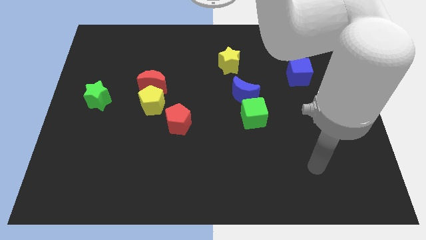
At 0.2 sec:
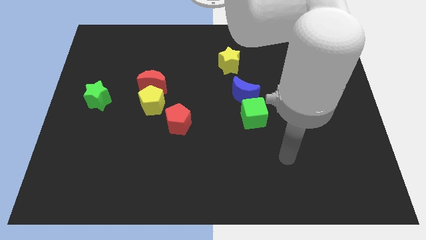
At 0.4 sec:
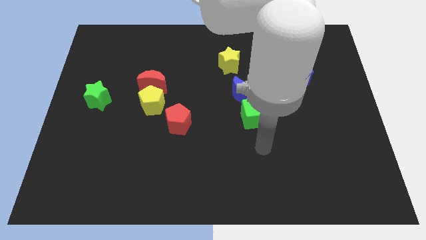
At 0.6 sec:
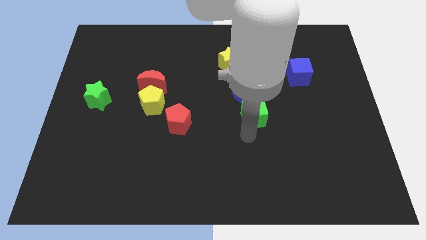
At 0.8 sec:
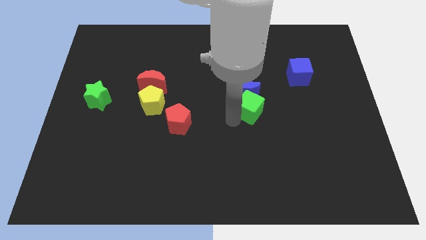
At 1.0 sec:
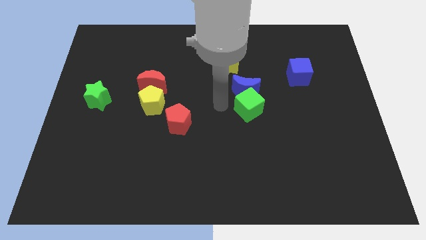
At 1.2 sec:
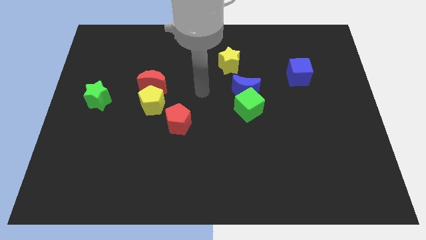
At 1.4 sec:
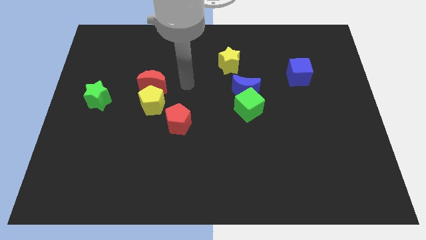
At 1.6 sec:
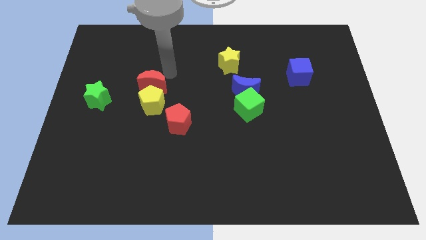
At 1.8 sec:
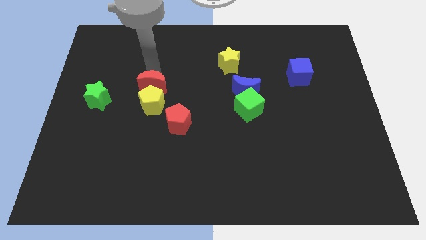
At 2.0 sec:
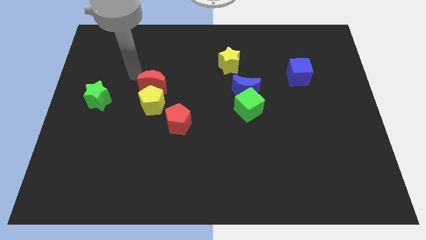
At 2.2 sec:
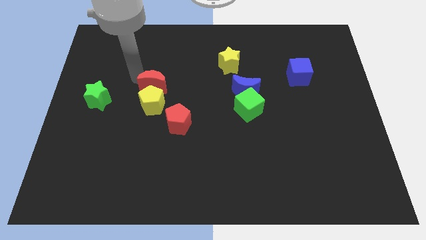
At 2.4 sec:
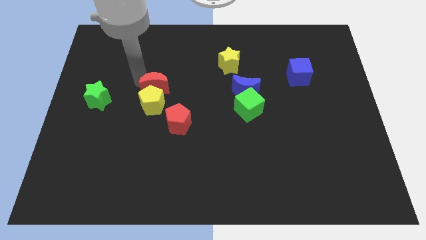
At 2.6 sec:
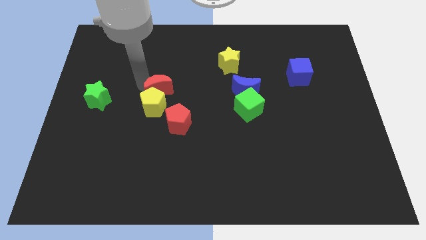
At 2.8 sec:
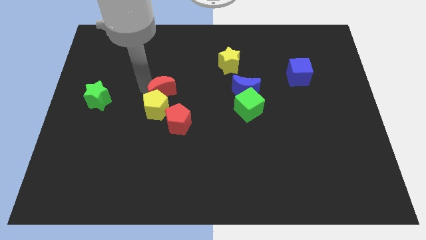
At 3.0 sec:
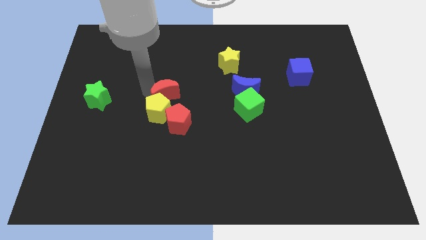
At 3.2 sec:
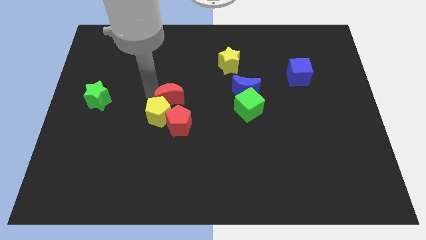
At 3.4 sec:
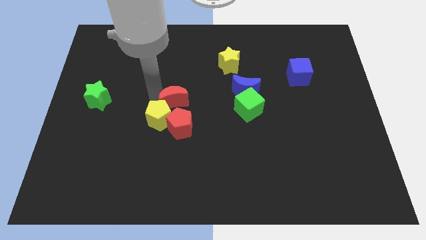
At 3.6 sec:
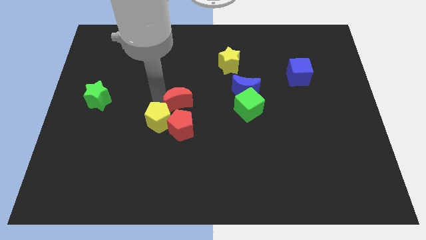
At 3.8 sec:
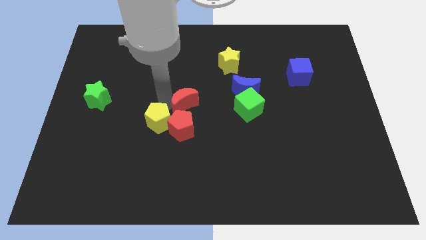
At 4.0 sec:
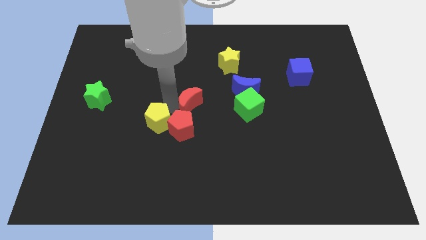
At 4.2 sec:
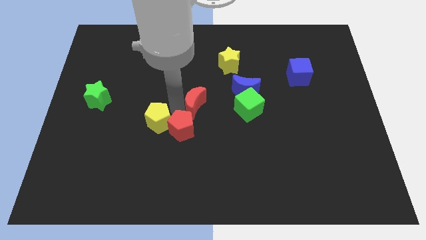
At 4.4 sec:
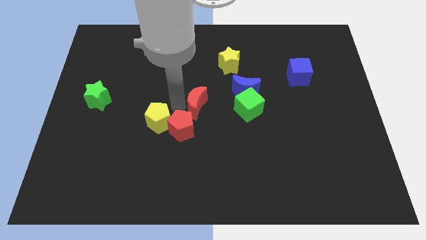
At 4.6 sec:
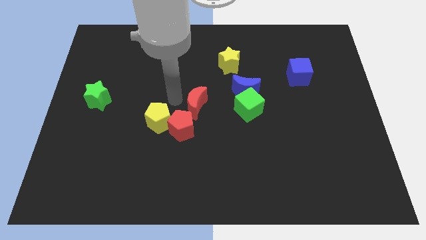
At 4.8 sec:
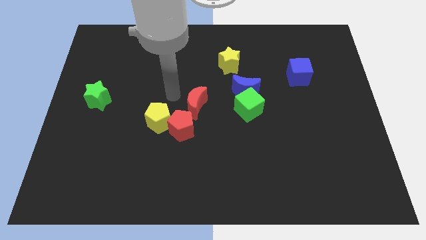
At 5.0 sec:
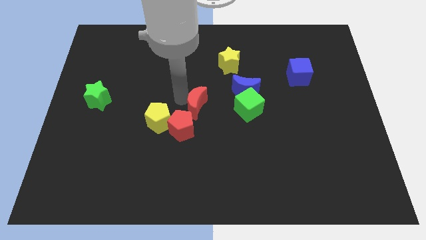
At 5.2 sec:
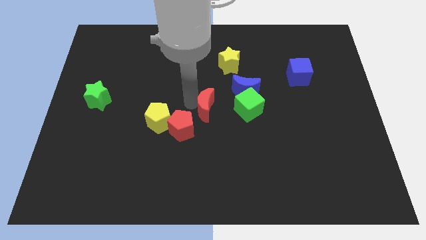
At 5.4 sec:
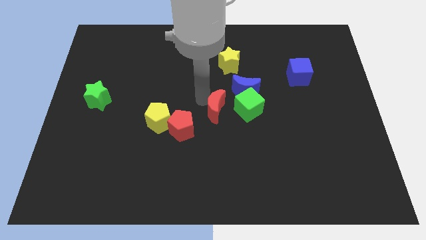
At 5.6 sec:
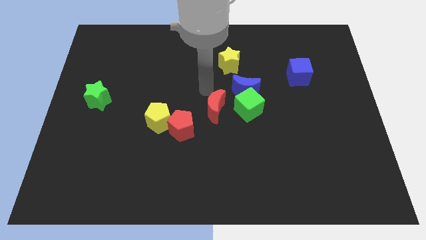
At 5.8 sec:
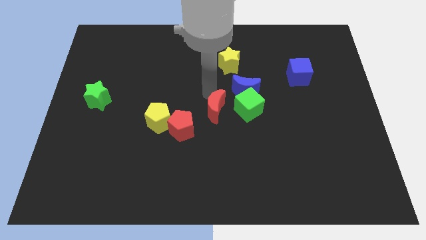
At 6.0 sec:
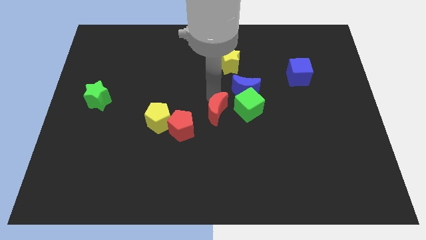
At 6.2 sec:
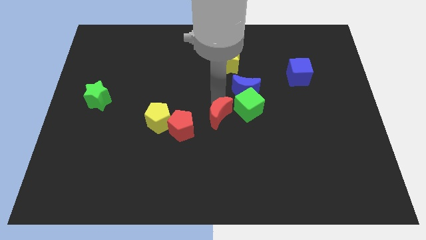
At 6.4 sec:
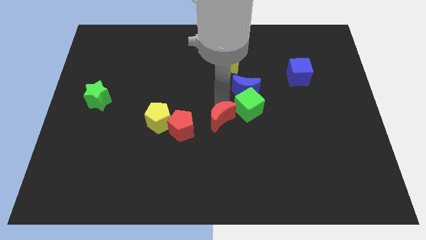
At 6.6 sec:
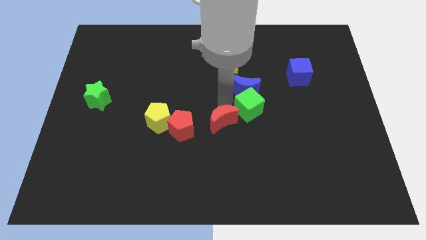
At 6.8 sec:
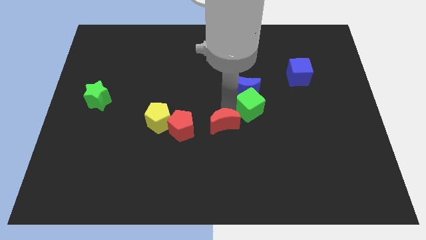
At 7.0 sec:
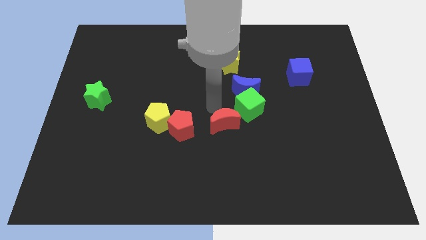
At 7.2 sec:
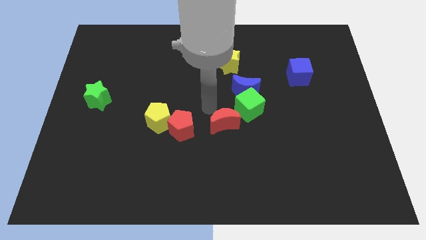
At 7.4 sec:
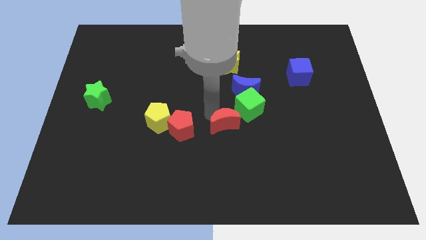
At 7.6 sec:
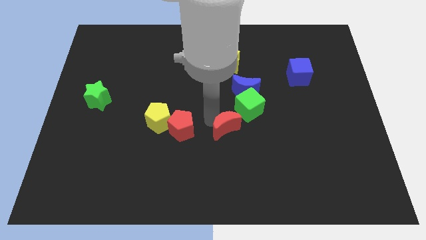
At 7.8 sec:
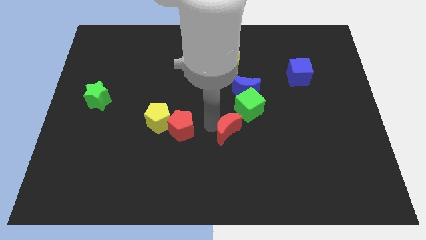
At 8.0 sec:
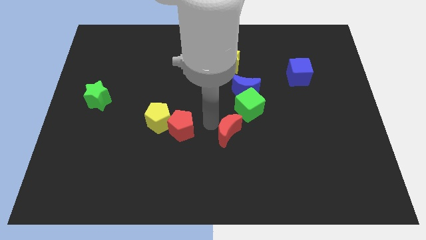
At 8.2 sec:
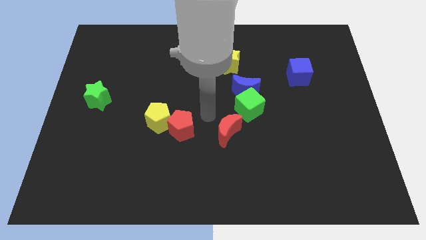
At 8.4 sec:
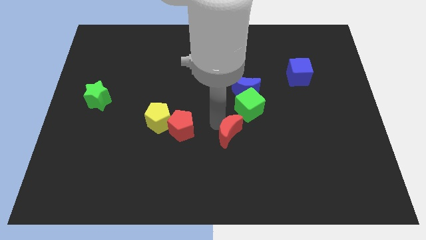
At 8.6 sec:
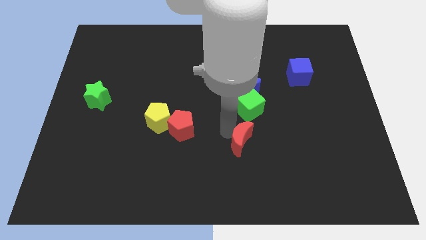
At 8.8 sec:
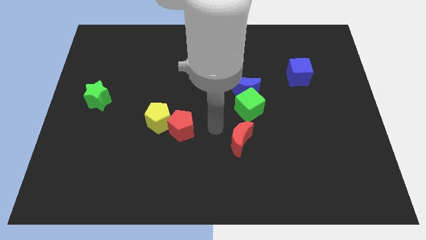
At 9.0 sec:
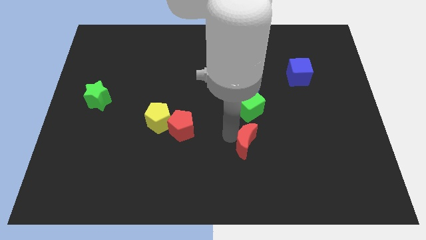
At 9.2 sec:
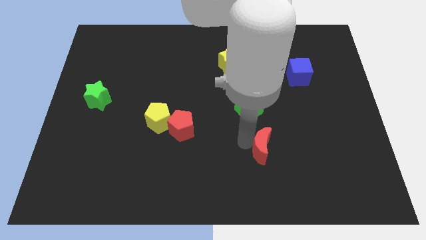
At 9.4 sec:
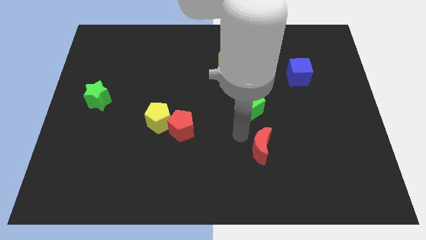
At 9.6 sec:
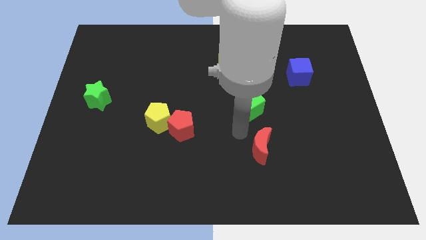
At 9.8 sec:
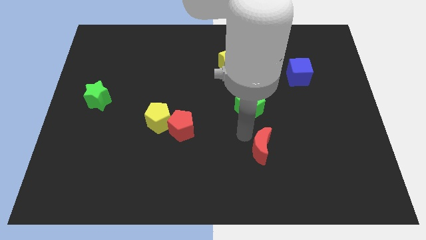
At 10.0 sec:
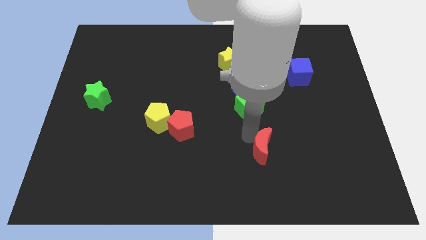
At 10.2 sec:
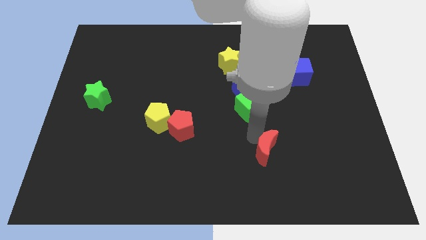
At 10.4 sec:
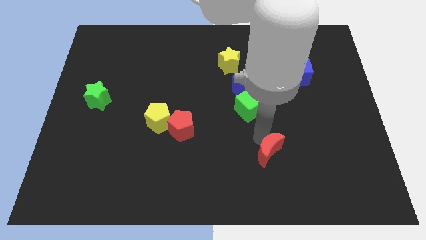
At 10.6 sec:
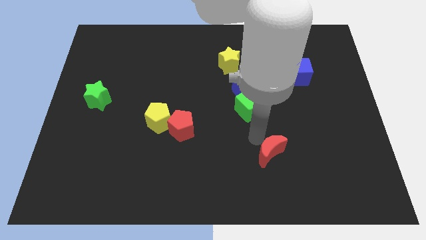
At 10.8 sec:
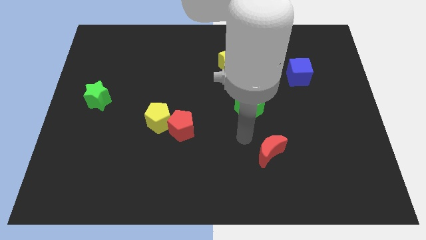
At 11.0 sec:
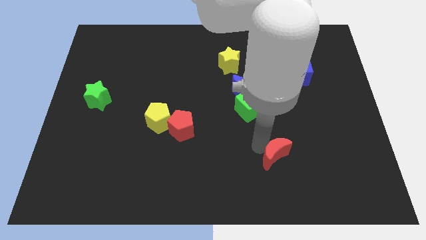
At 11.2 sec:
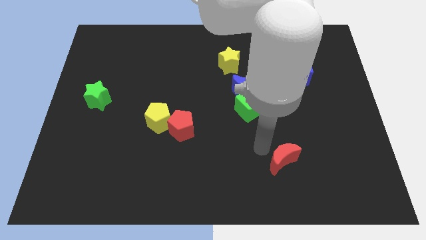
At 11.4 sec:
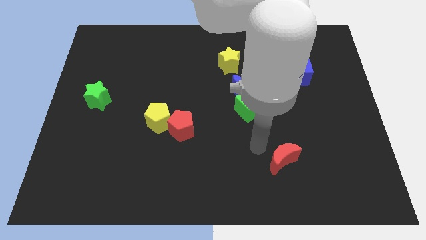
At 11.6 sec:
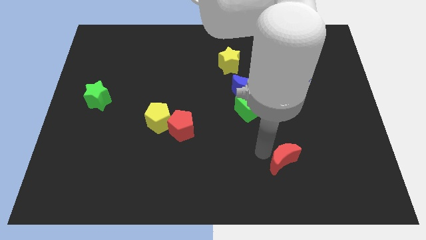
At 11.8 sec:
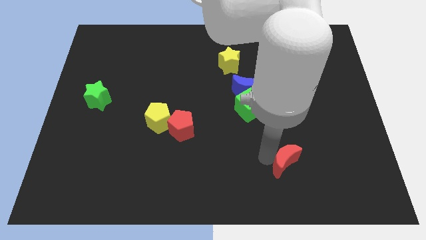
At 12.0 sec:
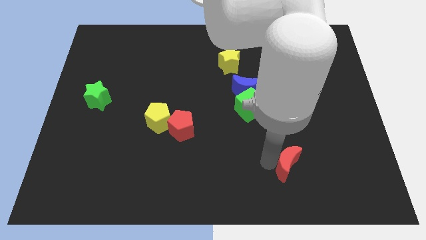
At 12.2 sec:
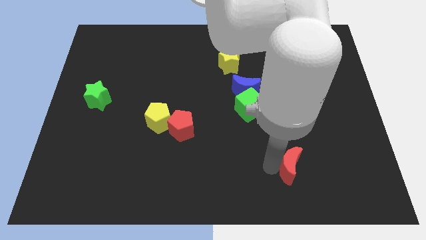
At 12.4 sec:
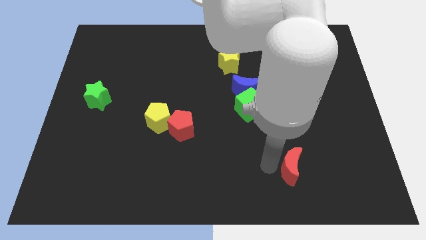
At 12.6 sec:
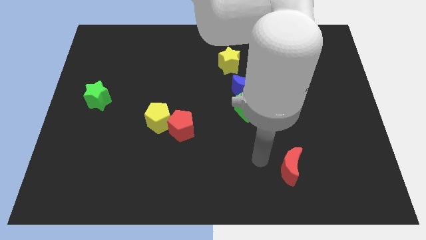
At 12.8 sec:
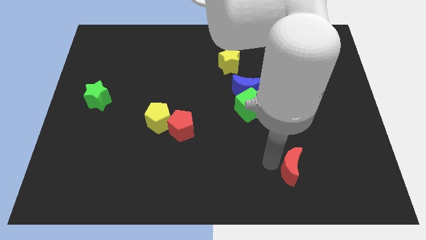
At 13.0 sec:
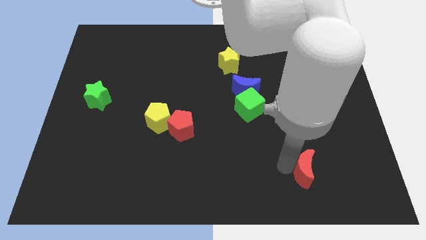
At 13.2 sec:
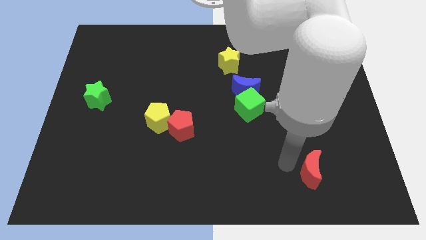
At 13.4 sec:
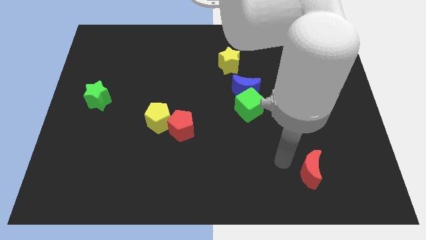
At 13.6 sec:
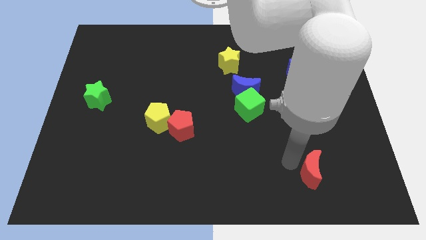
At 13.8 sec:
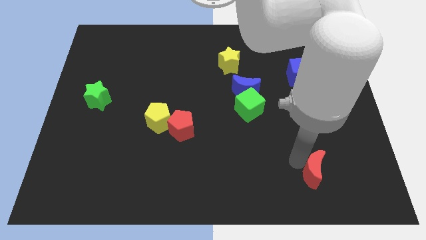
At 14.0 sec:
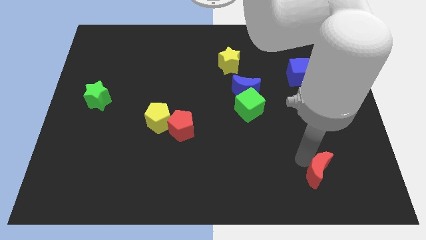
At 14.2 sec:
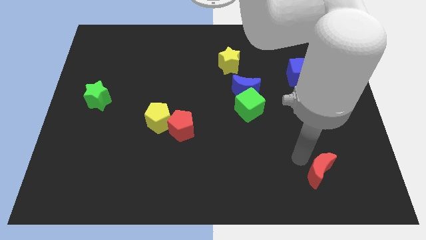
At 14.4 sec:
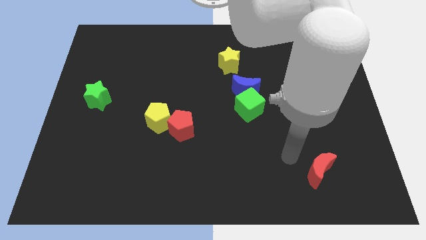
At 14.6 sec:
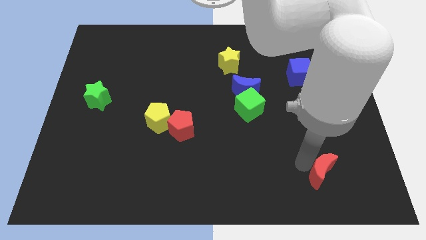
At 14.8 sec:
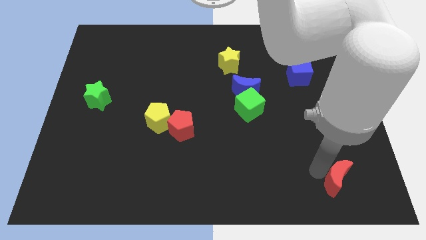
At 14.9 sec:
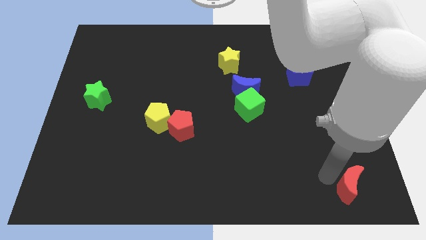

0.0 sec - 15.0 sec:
move the red moon to the bottom right
